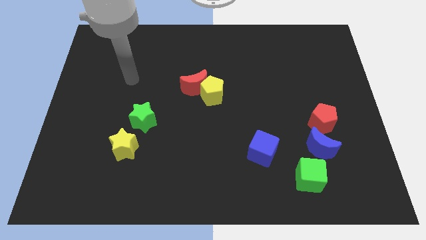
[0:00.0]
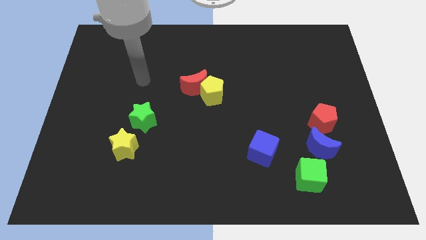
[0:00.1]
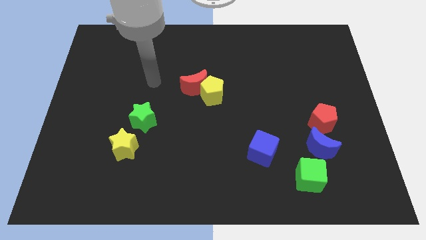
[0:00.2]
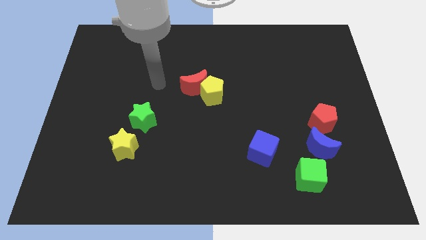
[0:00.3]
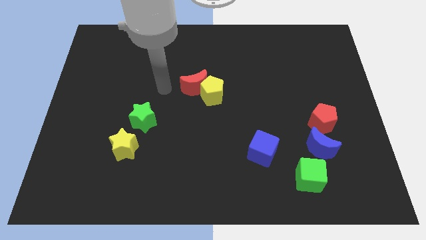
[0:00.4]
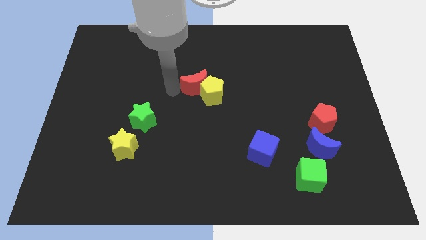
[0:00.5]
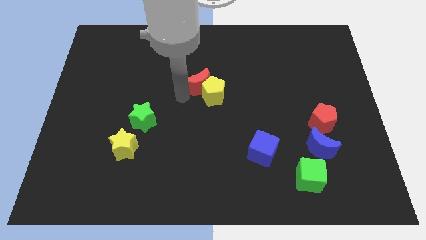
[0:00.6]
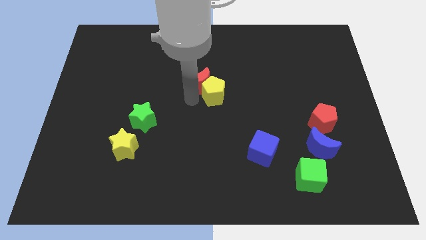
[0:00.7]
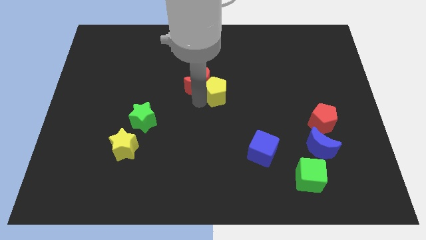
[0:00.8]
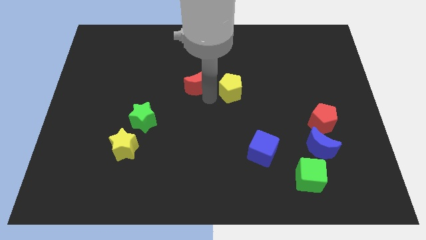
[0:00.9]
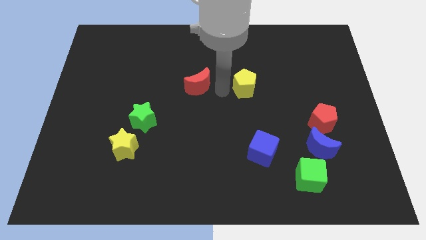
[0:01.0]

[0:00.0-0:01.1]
pull the red moon apart from the yellow pentagon

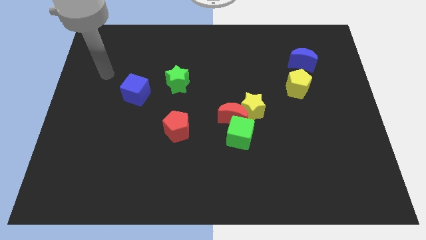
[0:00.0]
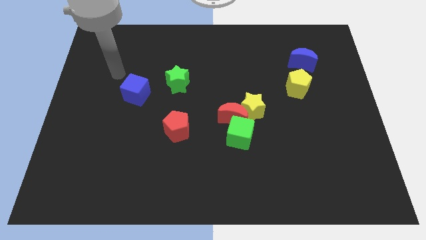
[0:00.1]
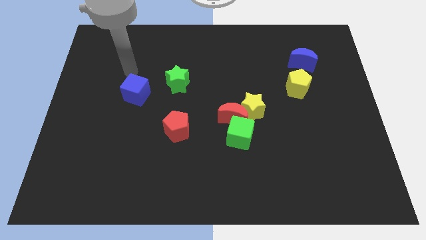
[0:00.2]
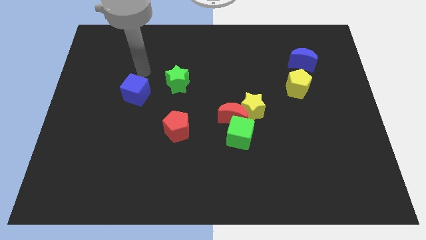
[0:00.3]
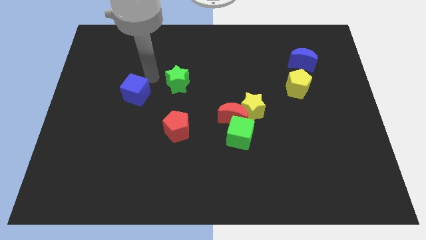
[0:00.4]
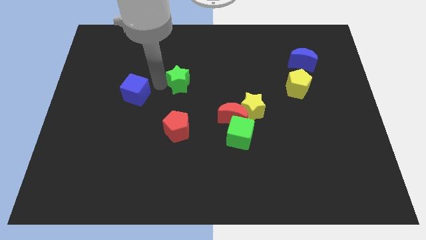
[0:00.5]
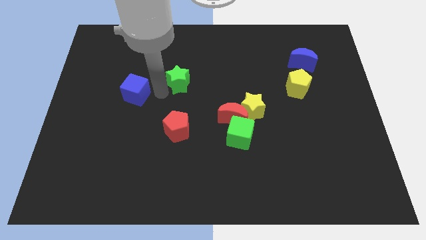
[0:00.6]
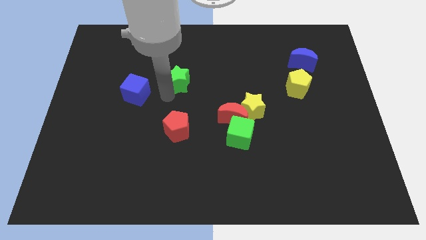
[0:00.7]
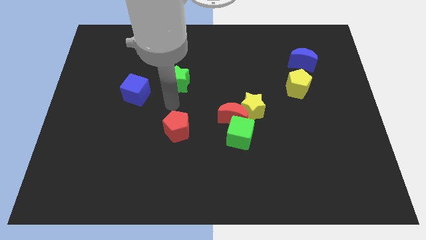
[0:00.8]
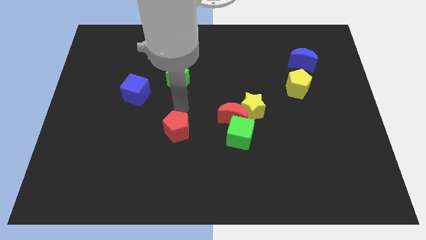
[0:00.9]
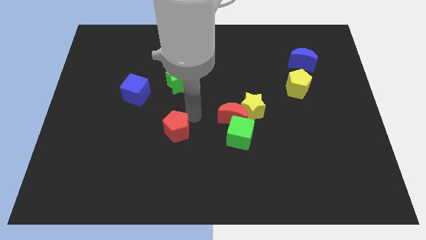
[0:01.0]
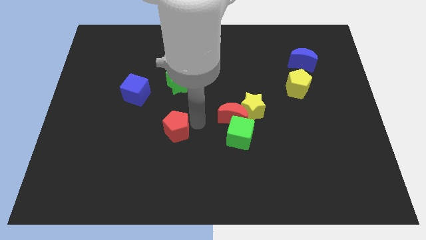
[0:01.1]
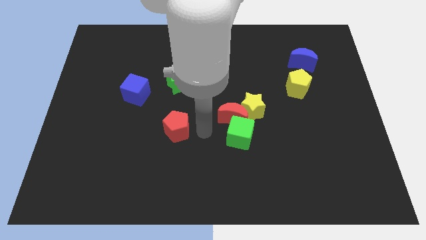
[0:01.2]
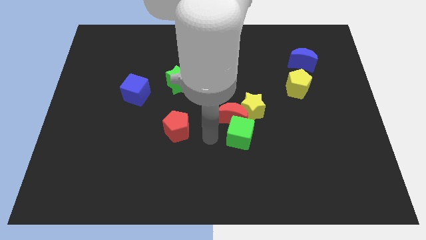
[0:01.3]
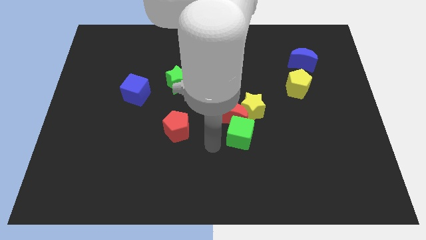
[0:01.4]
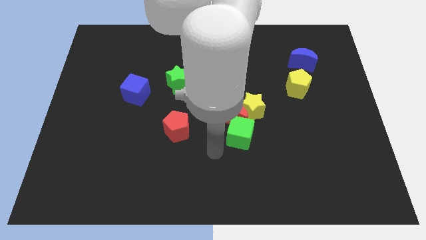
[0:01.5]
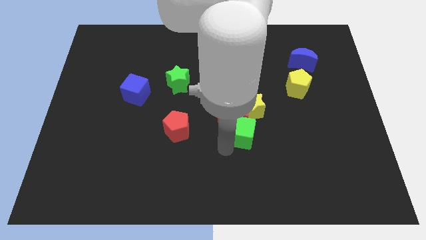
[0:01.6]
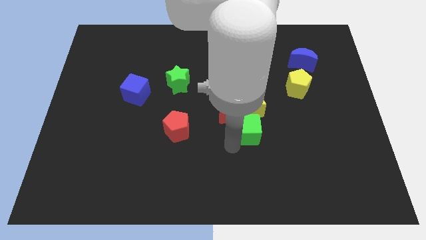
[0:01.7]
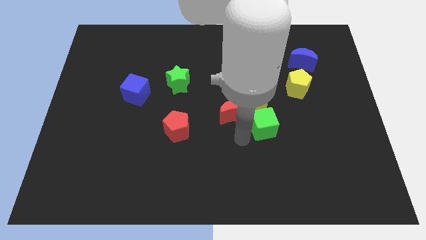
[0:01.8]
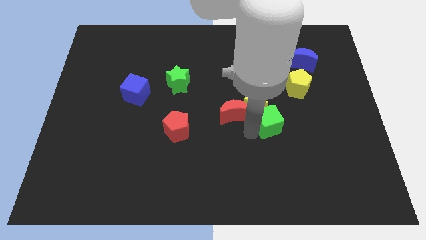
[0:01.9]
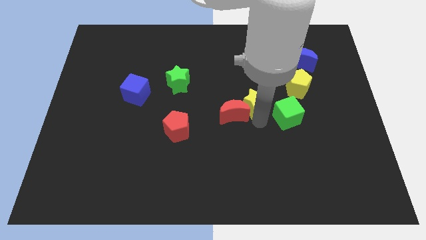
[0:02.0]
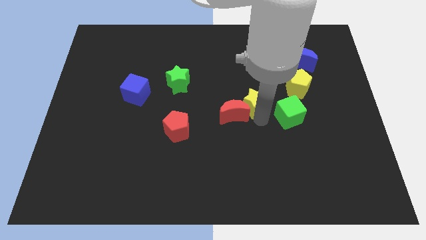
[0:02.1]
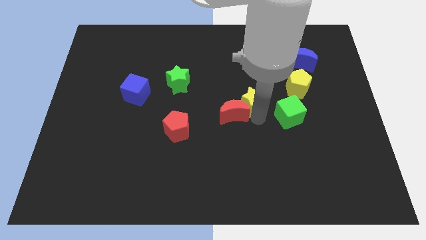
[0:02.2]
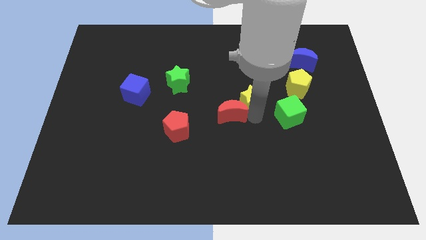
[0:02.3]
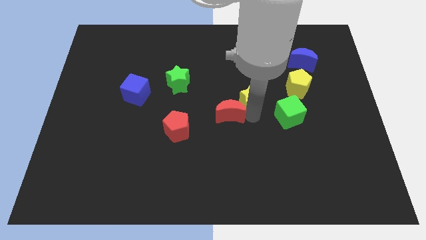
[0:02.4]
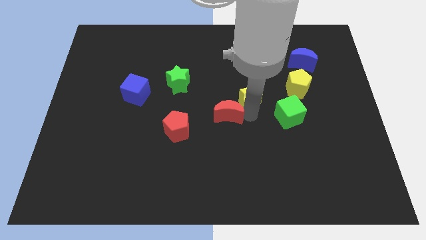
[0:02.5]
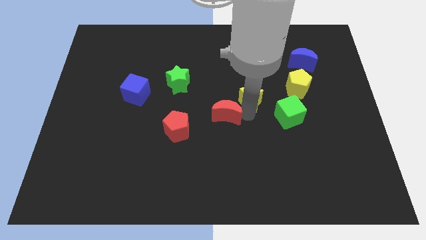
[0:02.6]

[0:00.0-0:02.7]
separate the red moon from the yellow star and green cube

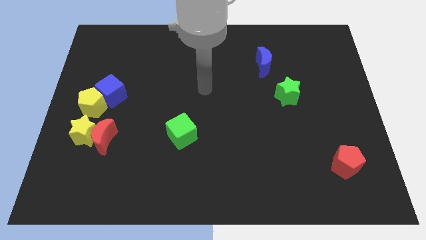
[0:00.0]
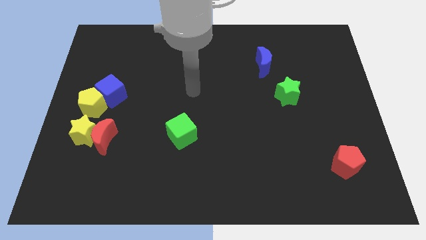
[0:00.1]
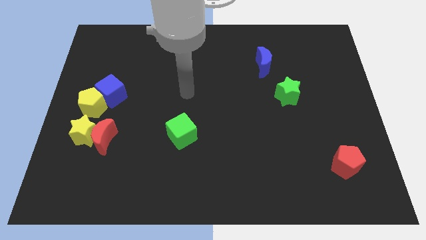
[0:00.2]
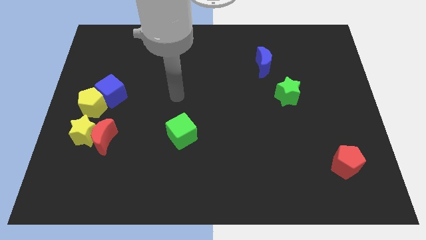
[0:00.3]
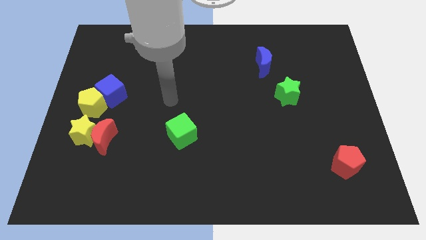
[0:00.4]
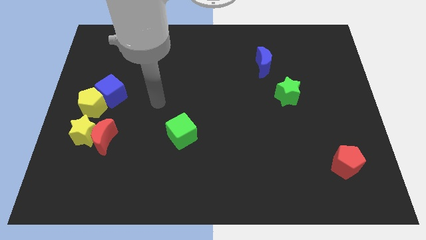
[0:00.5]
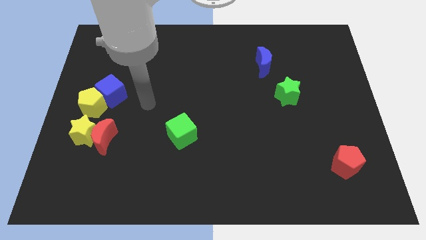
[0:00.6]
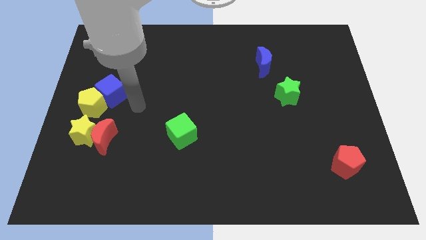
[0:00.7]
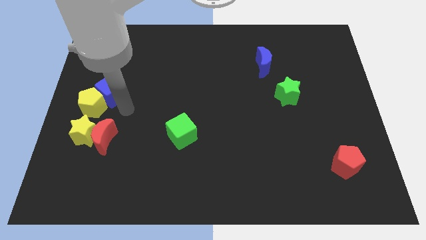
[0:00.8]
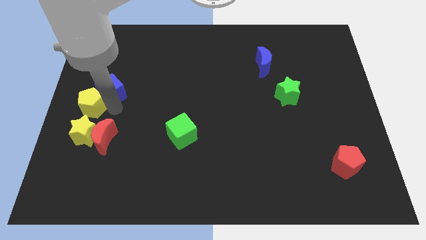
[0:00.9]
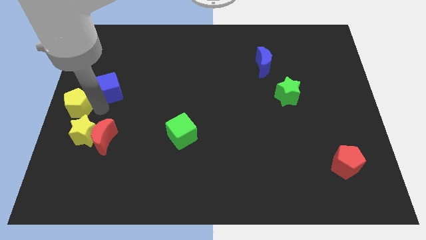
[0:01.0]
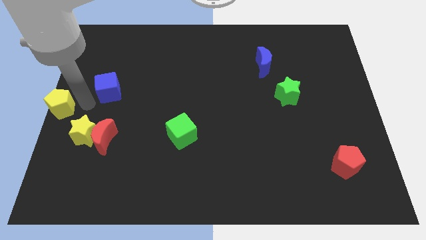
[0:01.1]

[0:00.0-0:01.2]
pull the blue cube apart from the yellow pentagon

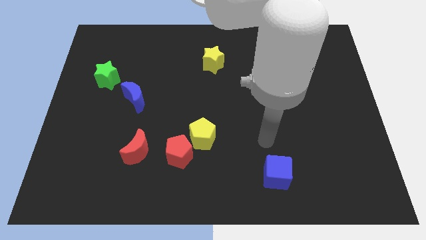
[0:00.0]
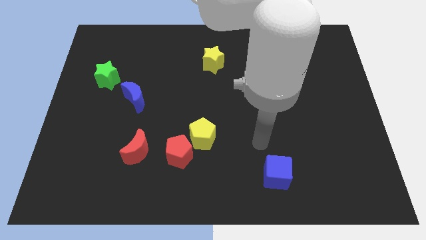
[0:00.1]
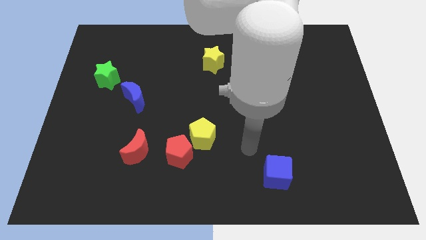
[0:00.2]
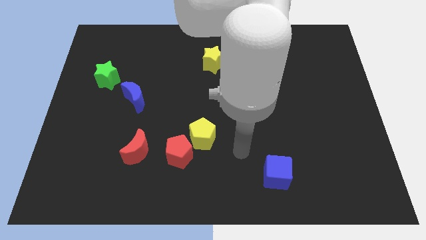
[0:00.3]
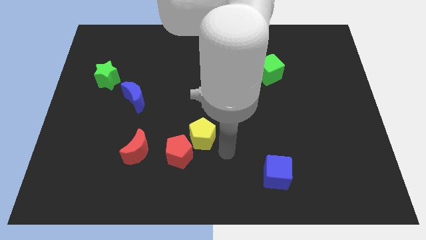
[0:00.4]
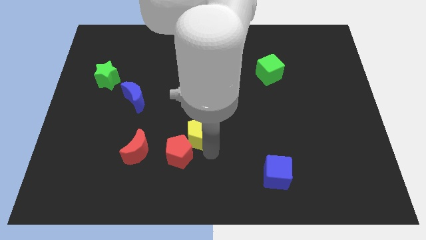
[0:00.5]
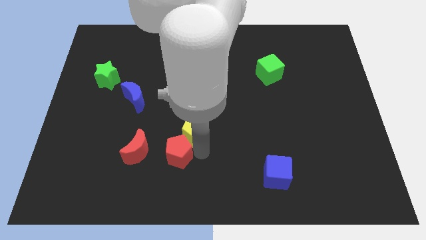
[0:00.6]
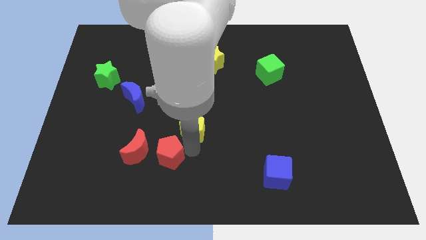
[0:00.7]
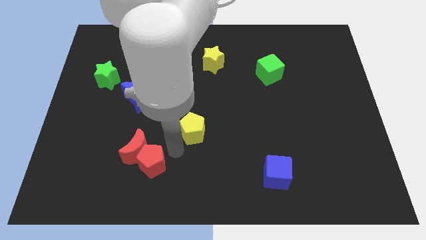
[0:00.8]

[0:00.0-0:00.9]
separate the yellow pentagon from the red pentagon

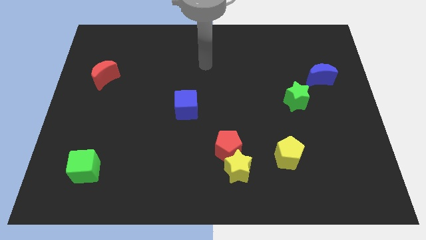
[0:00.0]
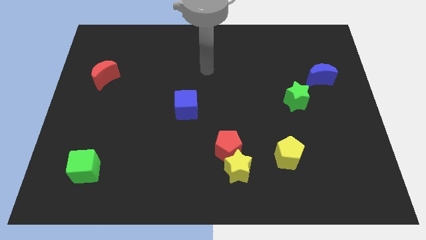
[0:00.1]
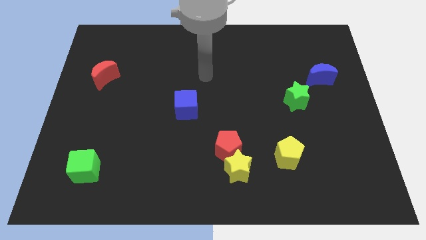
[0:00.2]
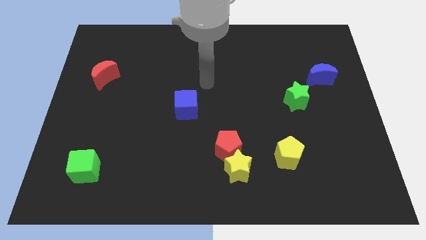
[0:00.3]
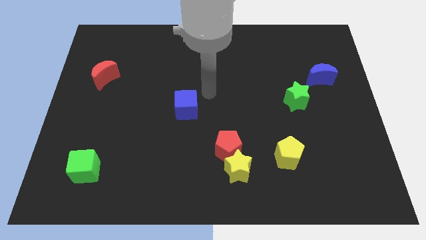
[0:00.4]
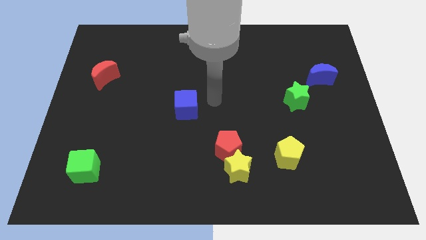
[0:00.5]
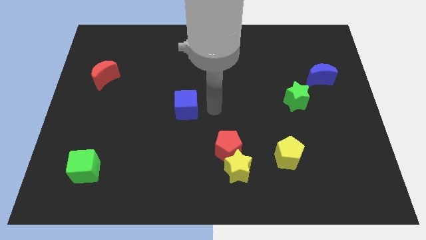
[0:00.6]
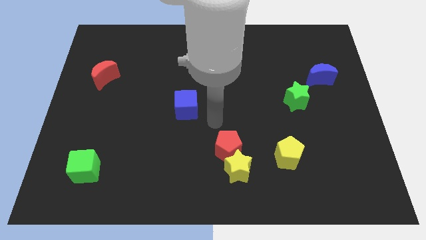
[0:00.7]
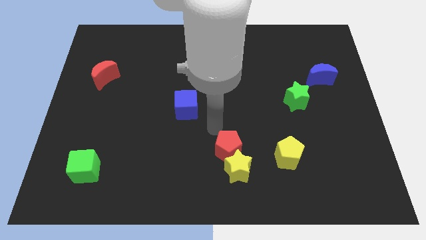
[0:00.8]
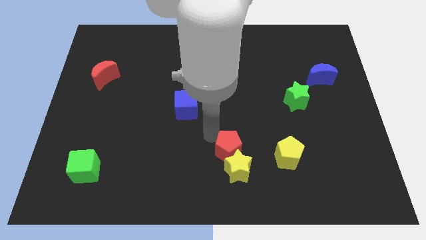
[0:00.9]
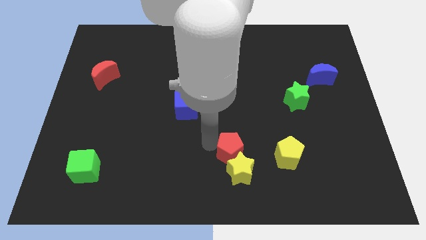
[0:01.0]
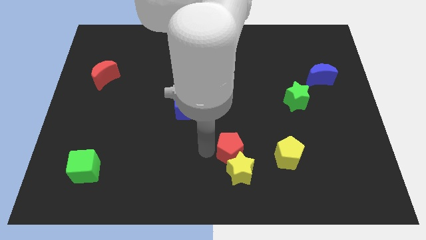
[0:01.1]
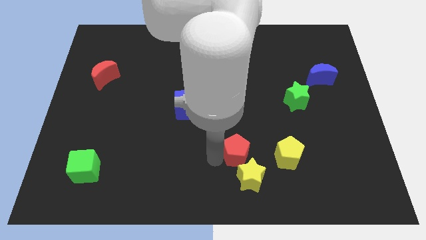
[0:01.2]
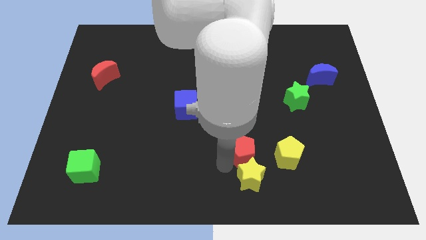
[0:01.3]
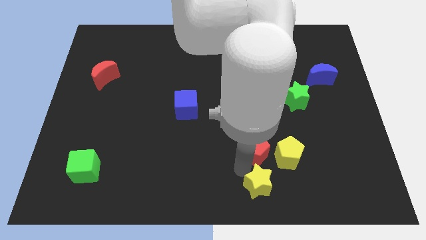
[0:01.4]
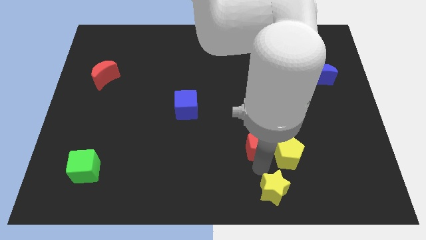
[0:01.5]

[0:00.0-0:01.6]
separate the red pentagon from the yellow star

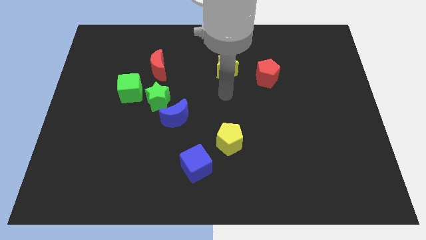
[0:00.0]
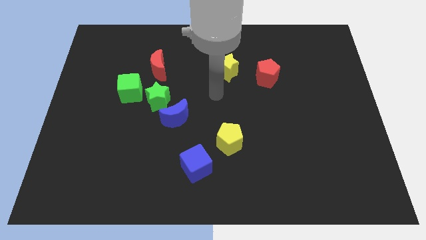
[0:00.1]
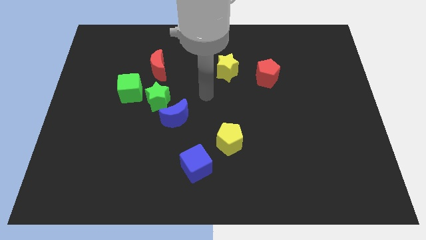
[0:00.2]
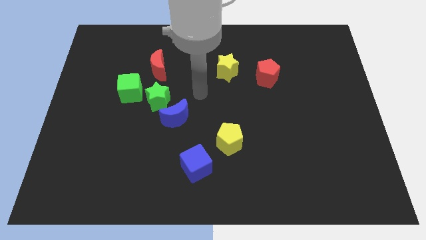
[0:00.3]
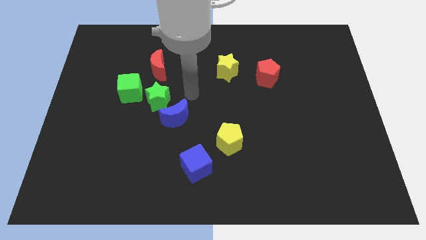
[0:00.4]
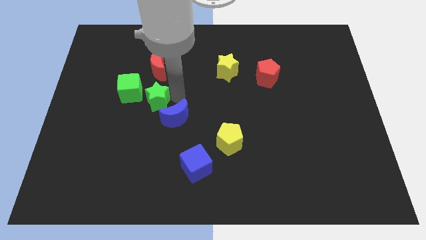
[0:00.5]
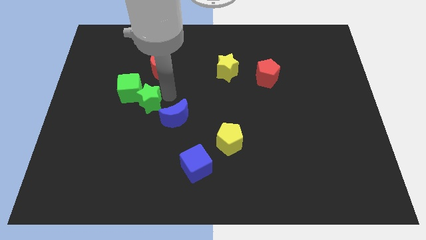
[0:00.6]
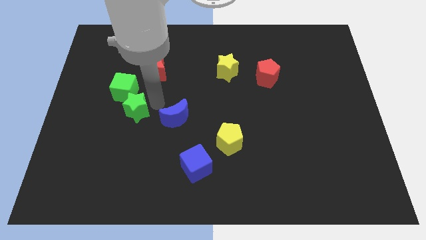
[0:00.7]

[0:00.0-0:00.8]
separate the blue moon from the green star

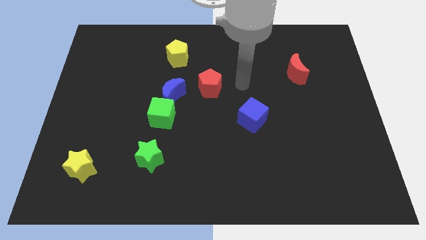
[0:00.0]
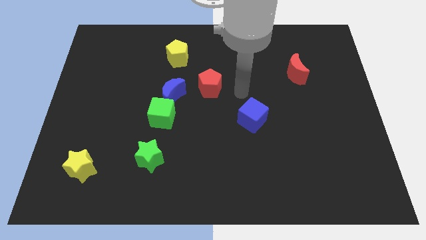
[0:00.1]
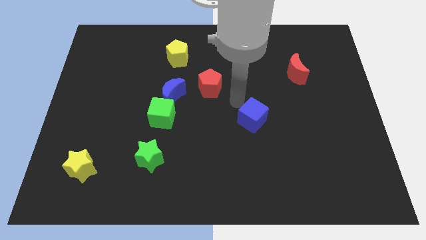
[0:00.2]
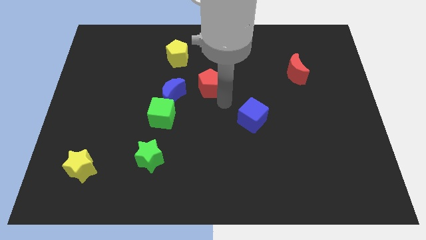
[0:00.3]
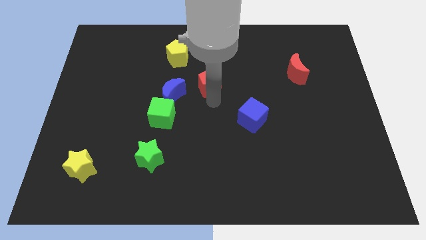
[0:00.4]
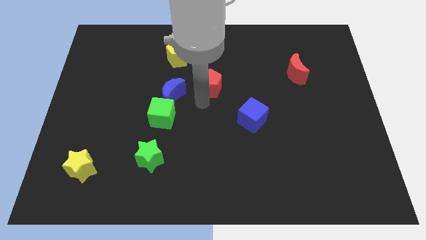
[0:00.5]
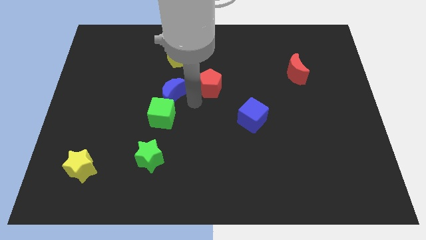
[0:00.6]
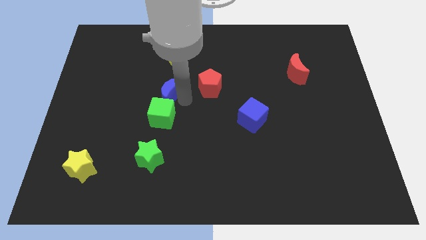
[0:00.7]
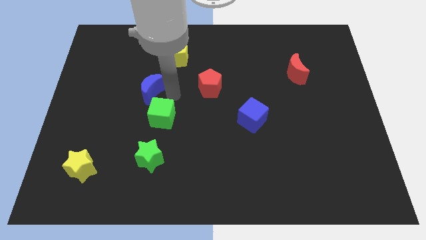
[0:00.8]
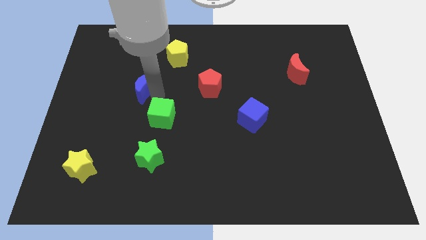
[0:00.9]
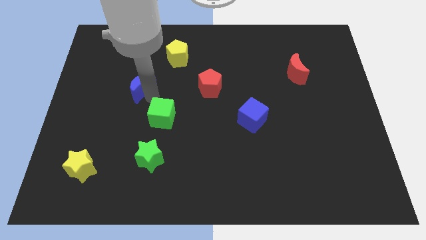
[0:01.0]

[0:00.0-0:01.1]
separate the green cube from the blue moon
